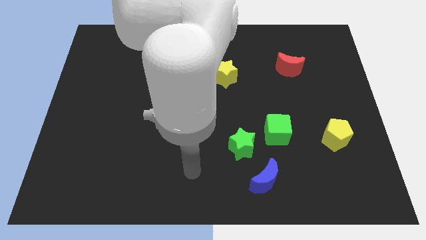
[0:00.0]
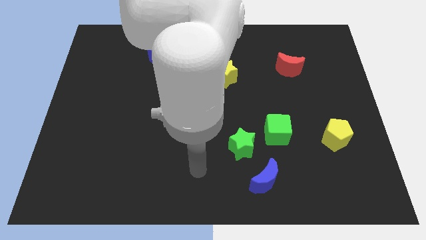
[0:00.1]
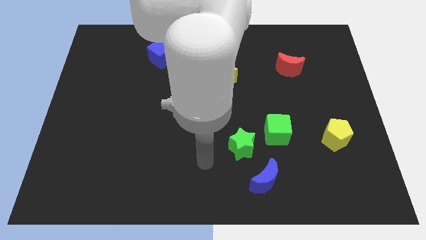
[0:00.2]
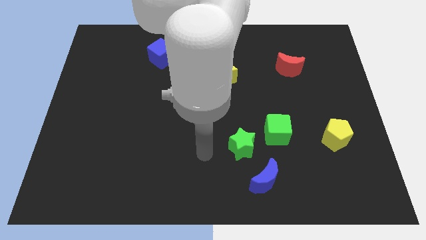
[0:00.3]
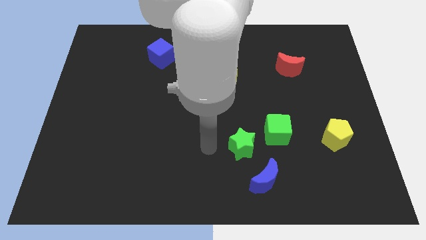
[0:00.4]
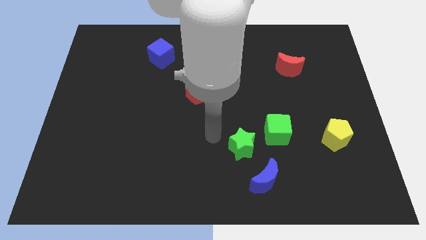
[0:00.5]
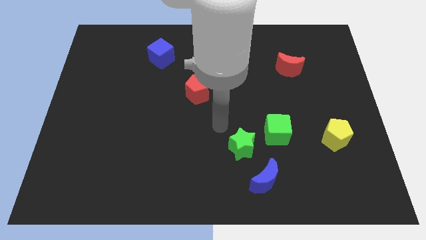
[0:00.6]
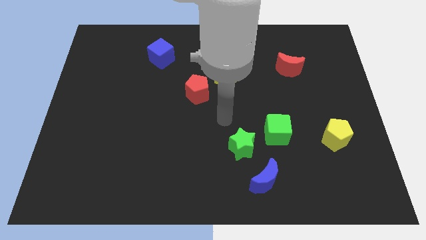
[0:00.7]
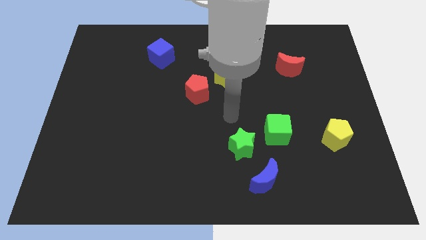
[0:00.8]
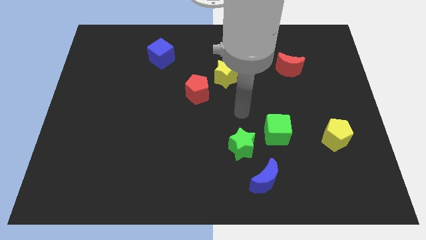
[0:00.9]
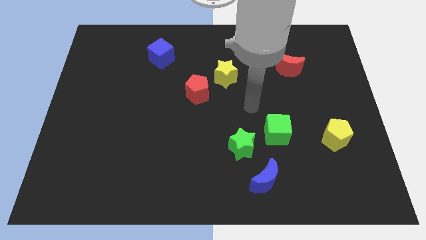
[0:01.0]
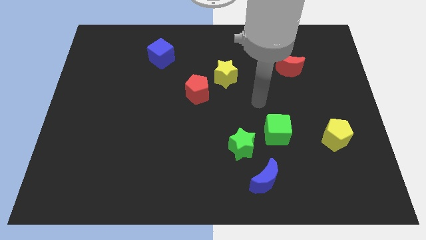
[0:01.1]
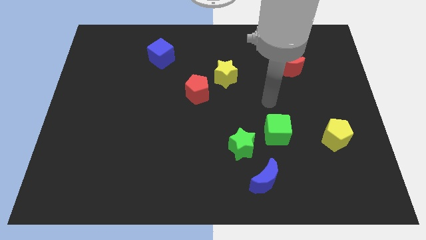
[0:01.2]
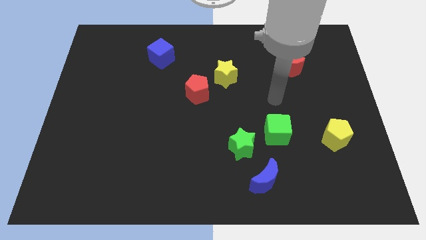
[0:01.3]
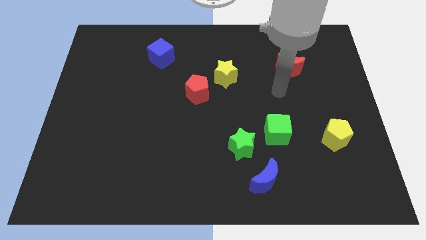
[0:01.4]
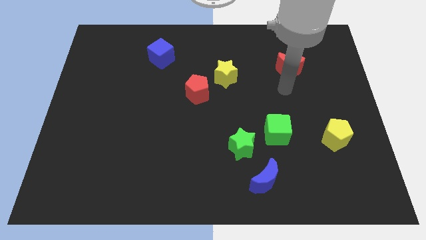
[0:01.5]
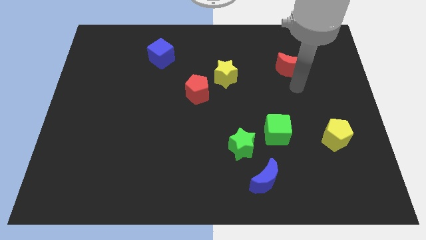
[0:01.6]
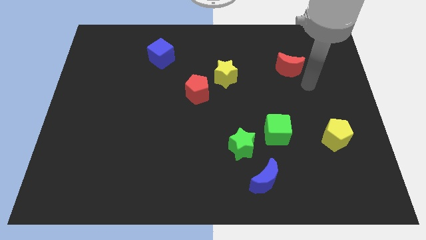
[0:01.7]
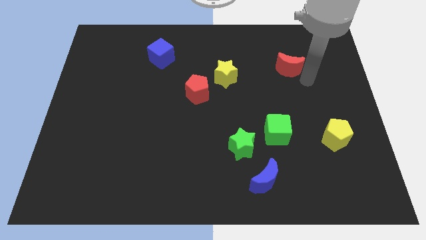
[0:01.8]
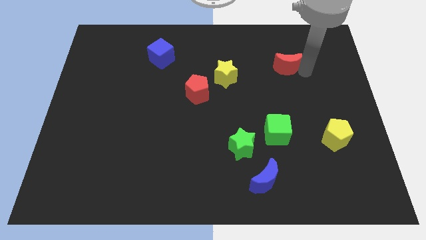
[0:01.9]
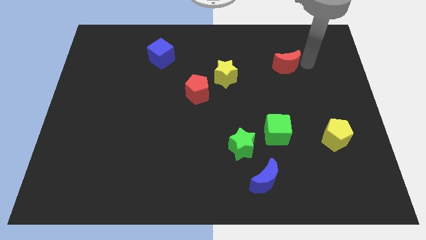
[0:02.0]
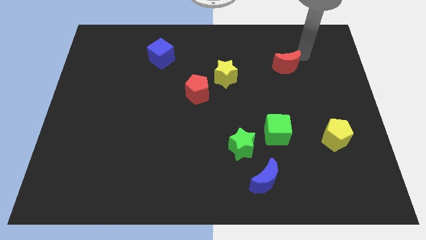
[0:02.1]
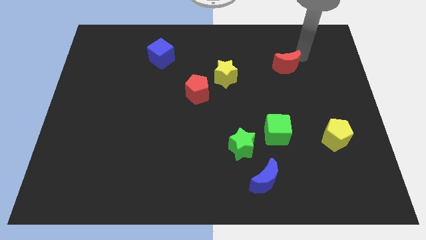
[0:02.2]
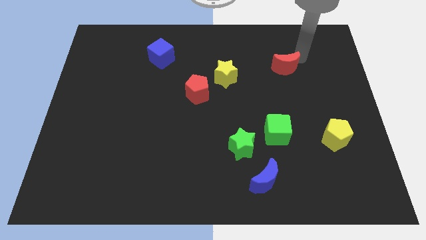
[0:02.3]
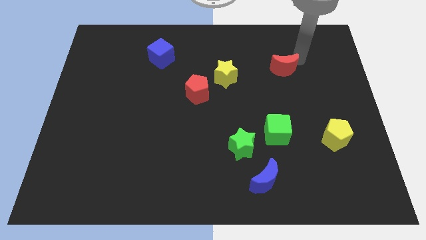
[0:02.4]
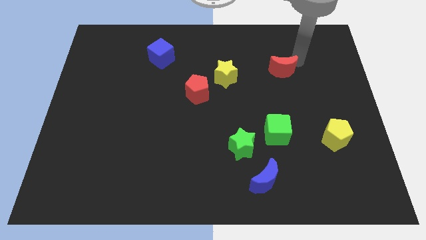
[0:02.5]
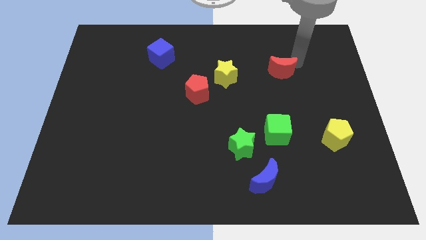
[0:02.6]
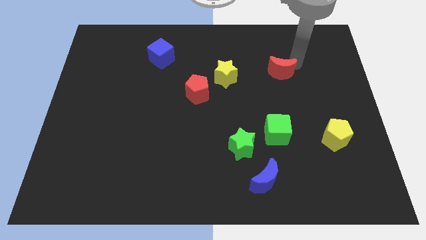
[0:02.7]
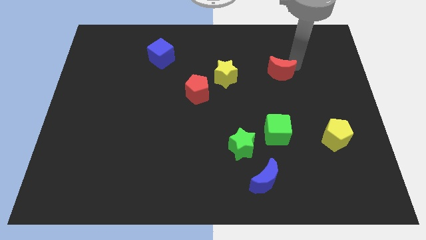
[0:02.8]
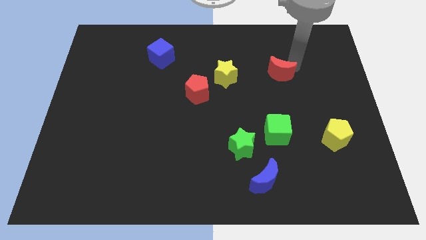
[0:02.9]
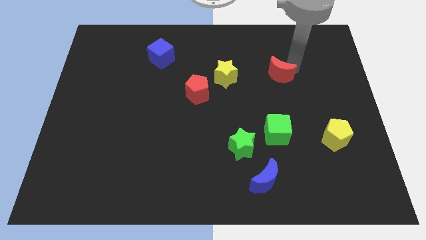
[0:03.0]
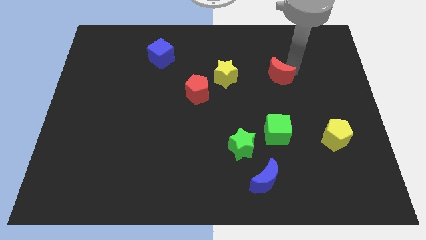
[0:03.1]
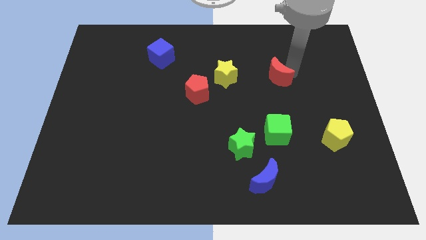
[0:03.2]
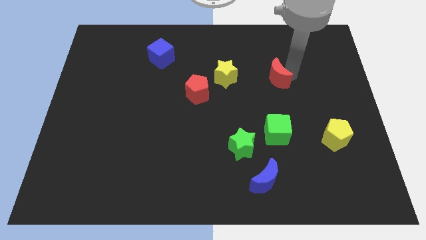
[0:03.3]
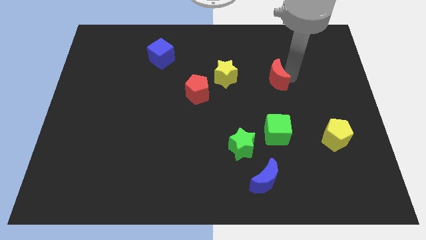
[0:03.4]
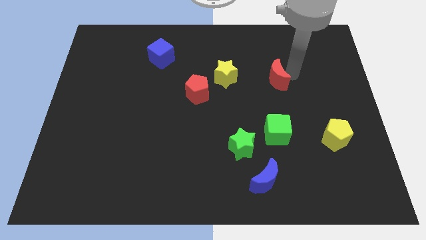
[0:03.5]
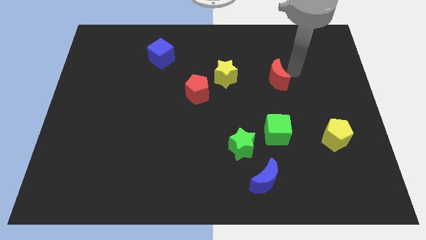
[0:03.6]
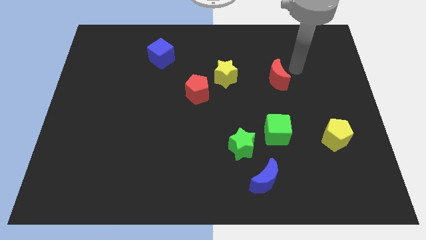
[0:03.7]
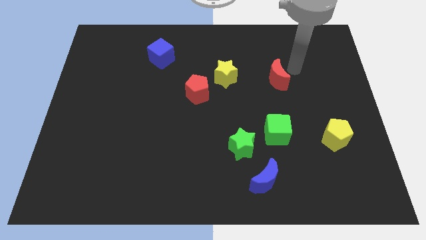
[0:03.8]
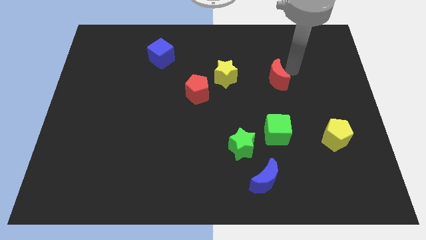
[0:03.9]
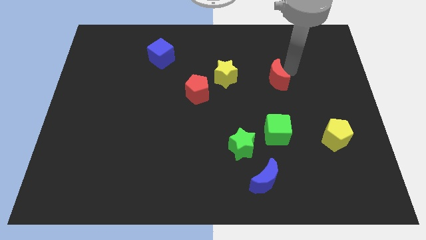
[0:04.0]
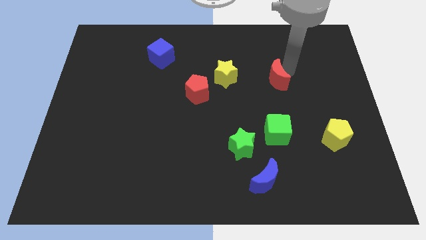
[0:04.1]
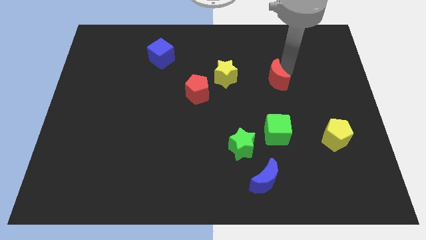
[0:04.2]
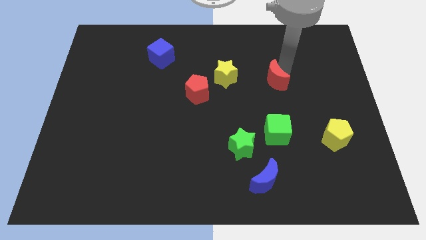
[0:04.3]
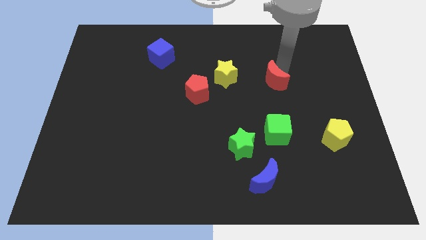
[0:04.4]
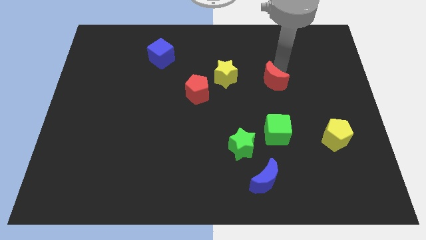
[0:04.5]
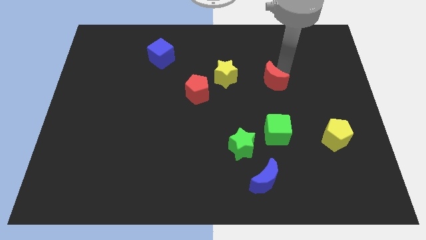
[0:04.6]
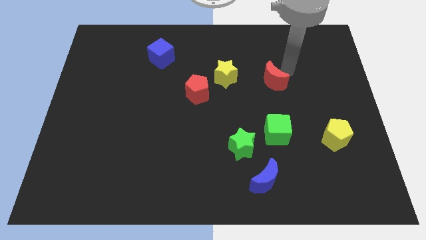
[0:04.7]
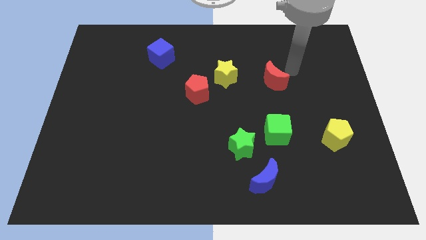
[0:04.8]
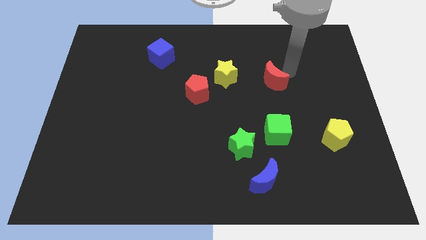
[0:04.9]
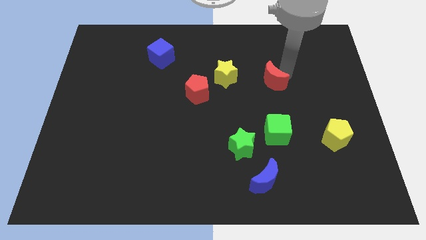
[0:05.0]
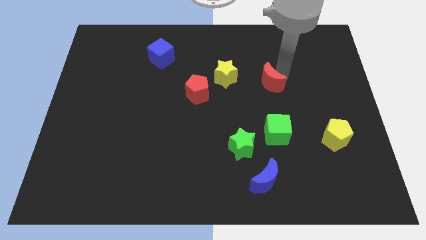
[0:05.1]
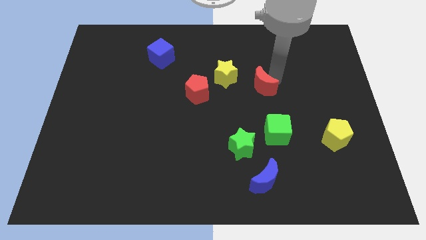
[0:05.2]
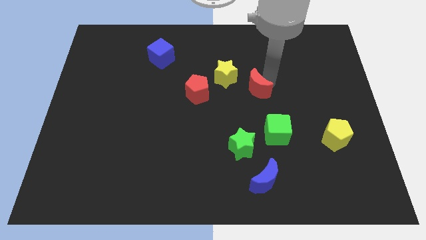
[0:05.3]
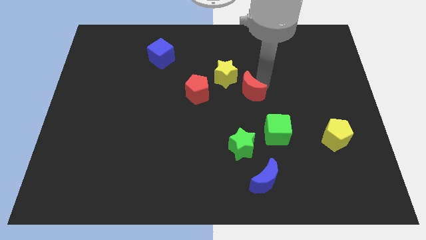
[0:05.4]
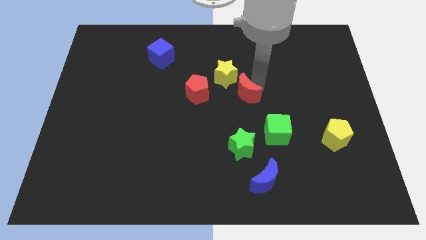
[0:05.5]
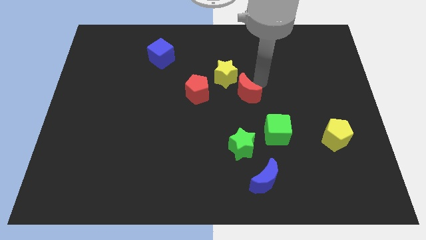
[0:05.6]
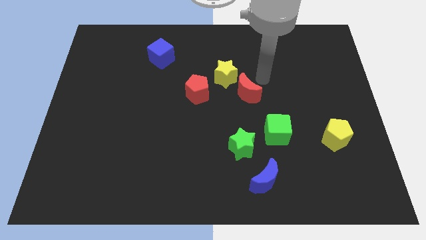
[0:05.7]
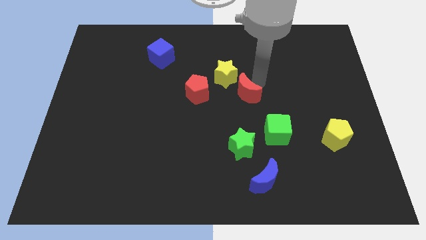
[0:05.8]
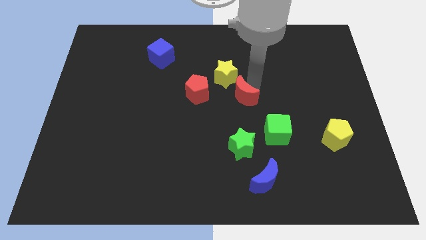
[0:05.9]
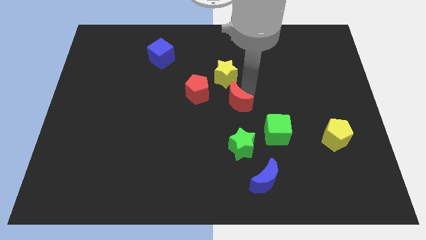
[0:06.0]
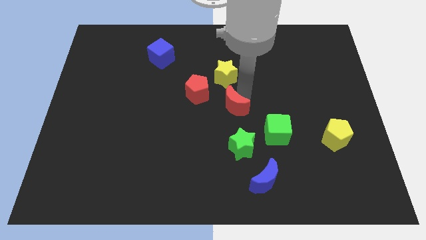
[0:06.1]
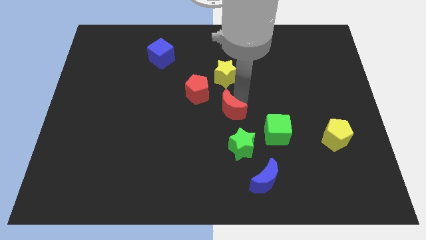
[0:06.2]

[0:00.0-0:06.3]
push the red moon down and then to the left

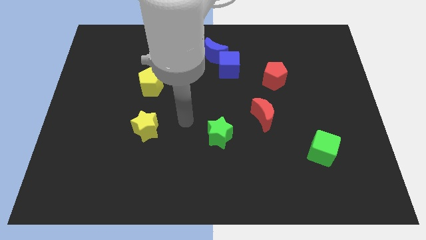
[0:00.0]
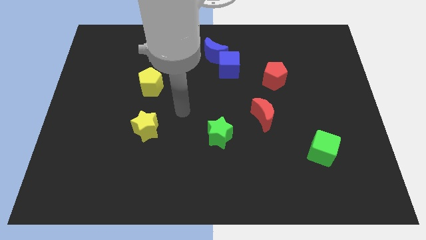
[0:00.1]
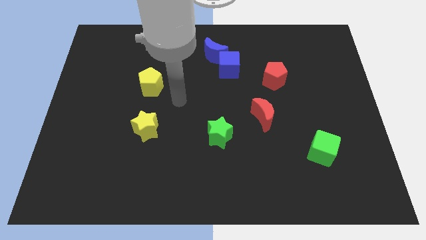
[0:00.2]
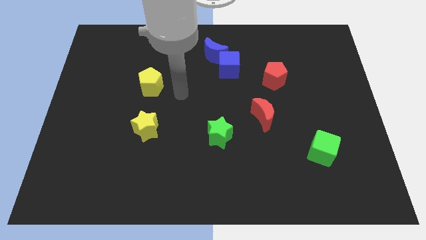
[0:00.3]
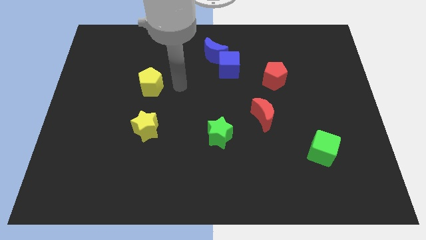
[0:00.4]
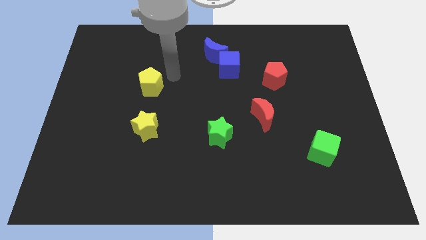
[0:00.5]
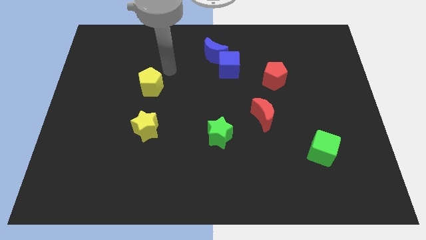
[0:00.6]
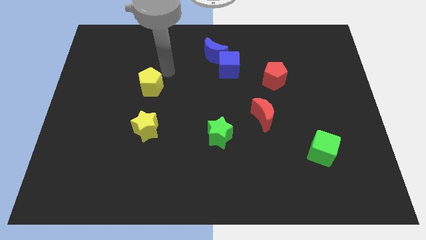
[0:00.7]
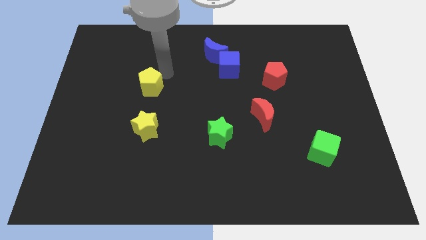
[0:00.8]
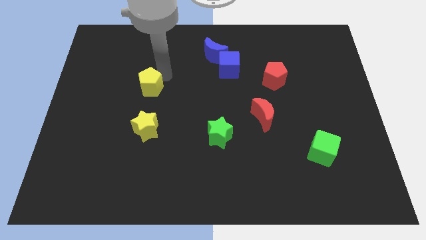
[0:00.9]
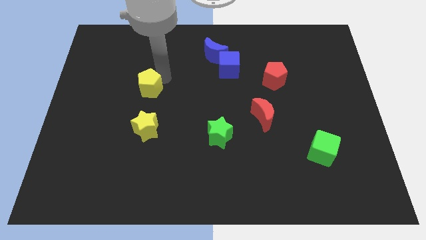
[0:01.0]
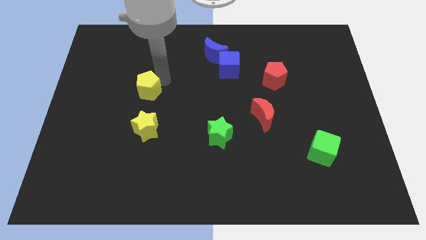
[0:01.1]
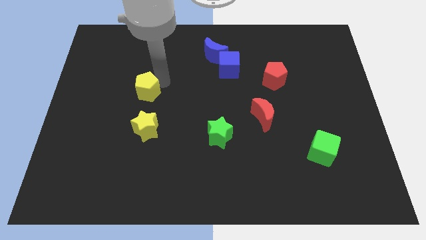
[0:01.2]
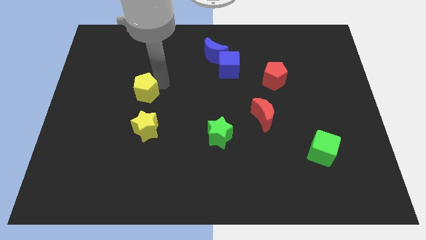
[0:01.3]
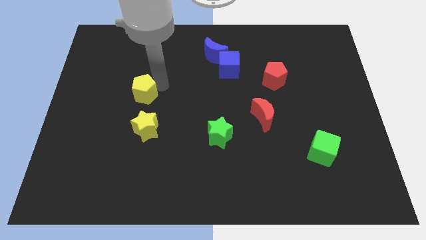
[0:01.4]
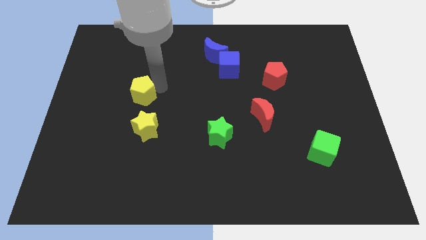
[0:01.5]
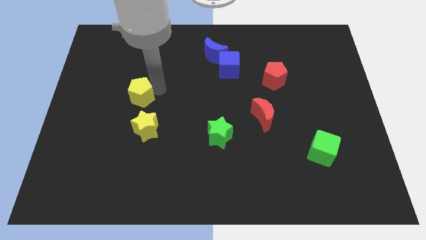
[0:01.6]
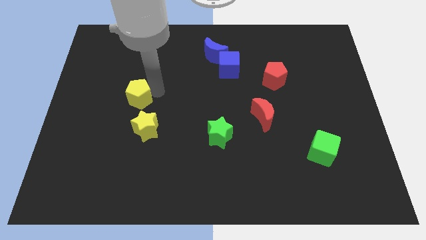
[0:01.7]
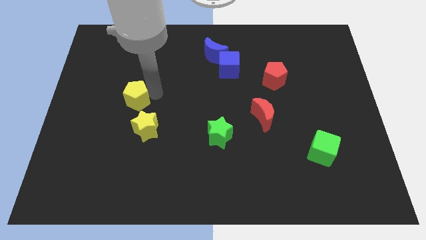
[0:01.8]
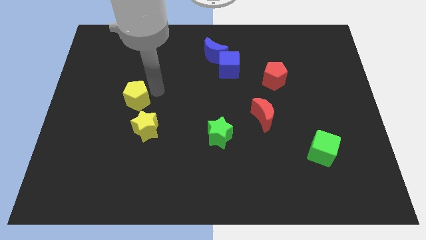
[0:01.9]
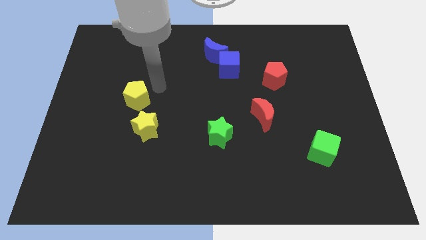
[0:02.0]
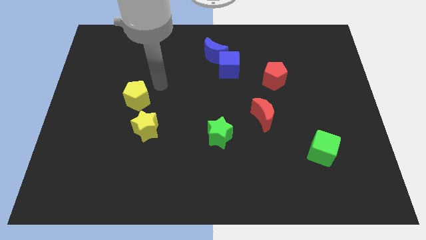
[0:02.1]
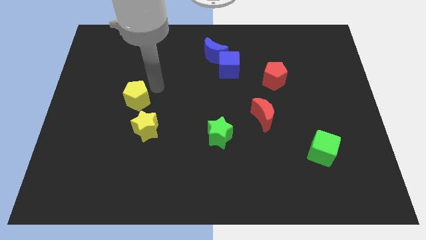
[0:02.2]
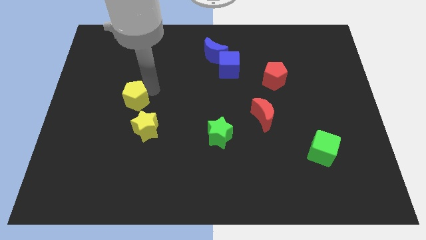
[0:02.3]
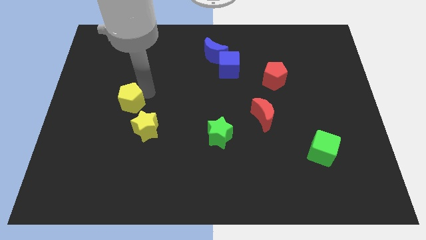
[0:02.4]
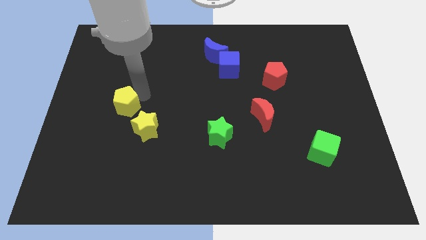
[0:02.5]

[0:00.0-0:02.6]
move the yellow pentagon downwards and to the left a little
